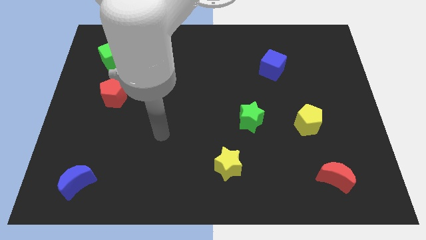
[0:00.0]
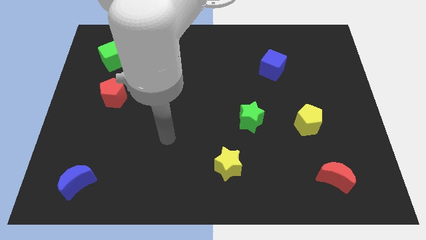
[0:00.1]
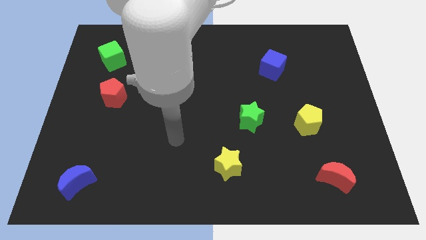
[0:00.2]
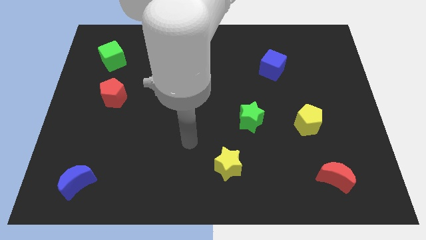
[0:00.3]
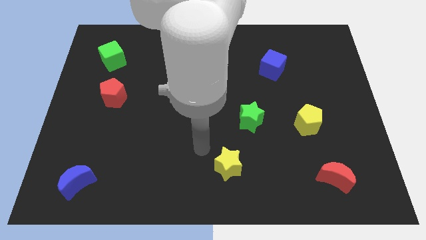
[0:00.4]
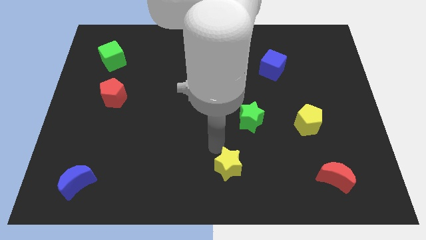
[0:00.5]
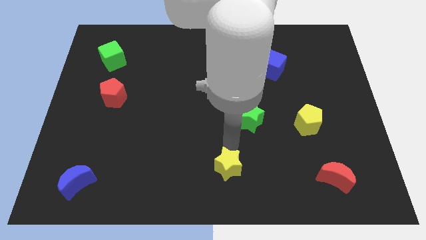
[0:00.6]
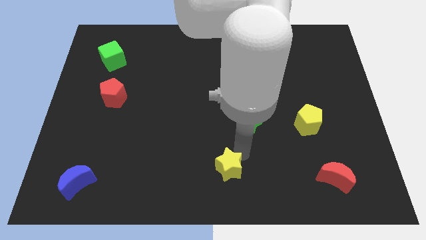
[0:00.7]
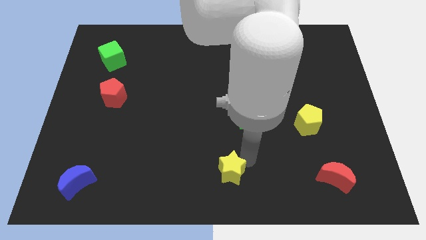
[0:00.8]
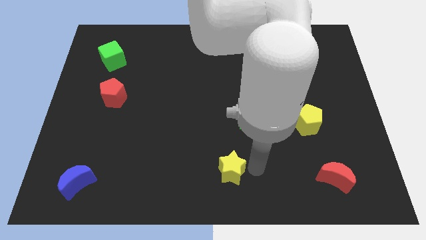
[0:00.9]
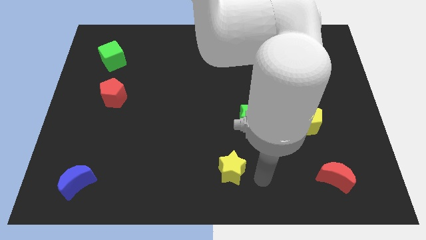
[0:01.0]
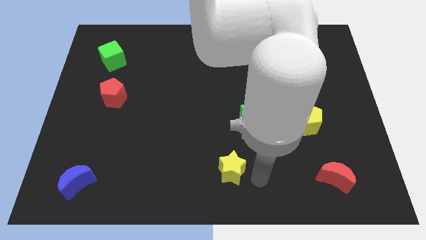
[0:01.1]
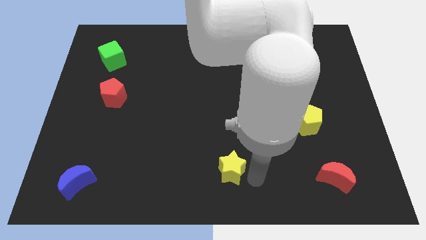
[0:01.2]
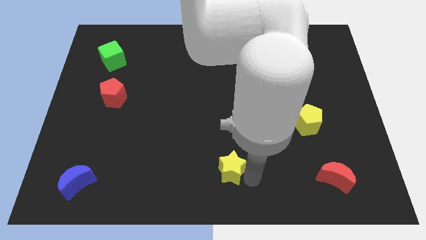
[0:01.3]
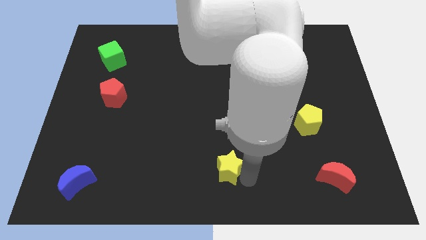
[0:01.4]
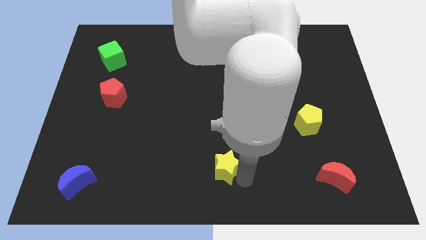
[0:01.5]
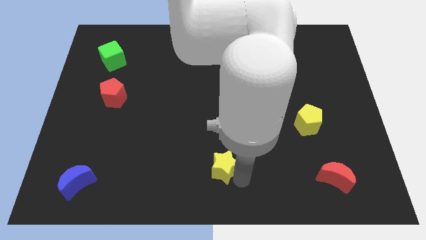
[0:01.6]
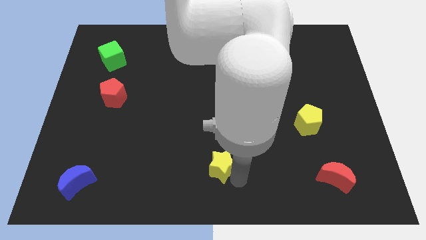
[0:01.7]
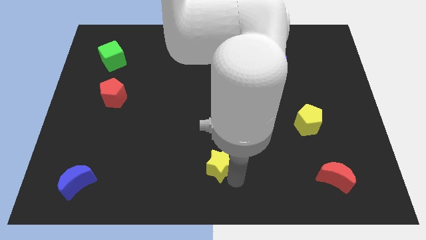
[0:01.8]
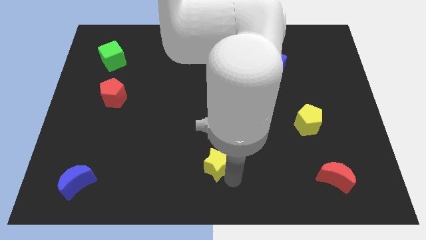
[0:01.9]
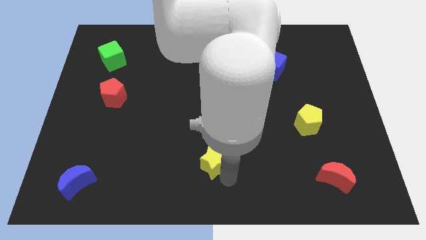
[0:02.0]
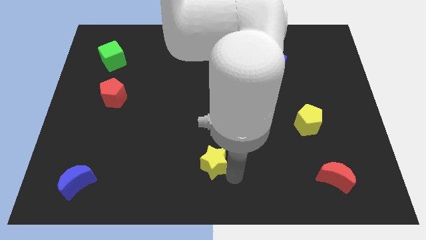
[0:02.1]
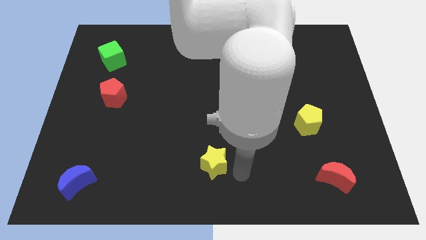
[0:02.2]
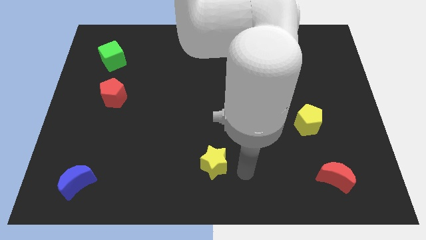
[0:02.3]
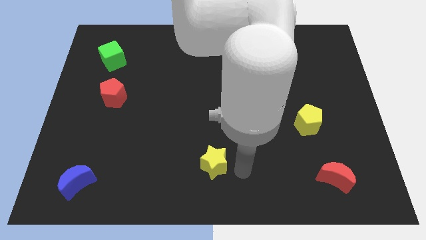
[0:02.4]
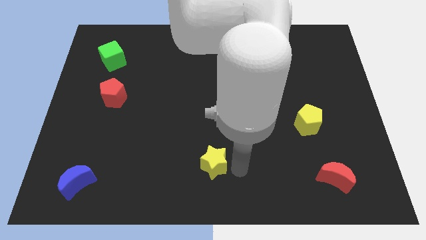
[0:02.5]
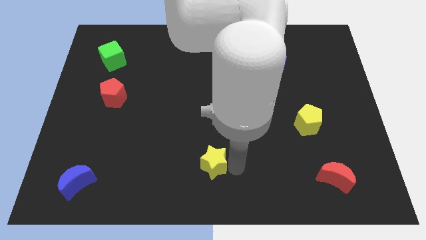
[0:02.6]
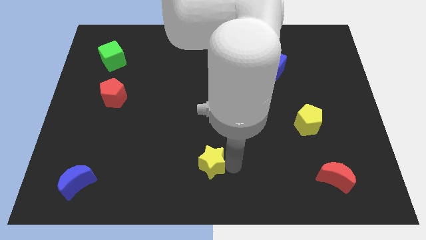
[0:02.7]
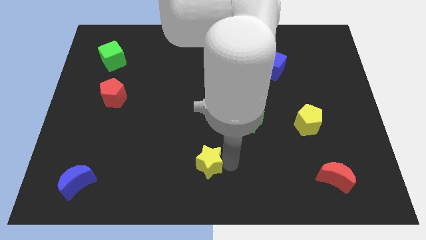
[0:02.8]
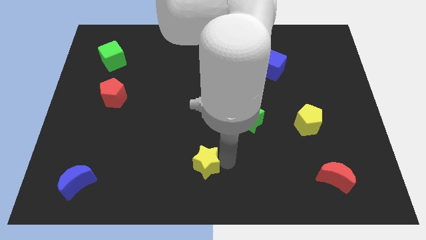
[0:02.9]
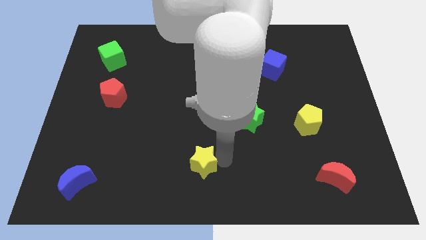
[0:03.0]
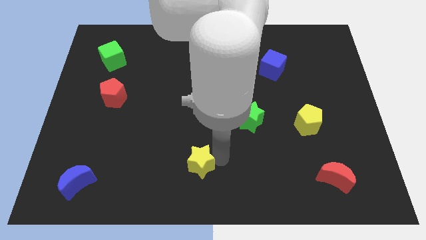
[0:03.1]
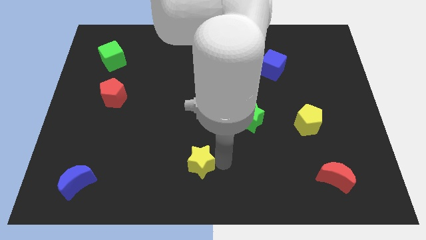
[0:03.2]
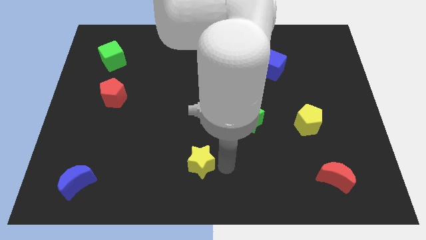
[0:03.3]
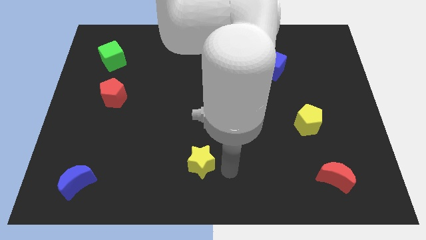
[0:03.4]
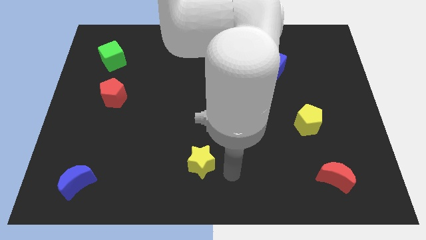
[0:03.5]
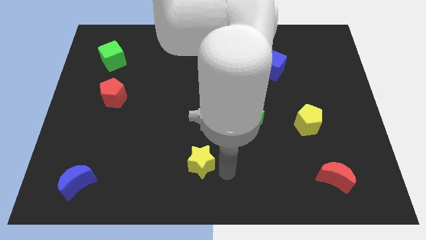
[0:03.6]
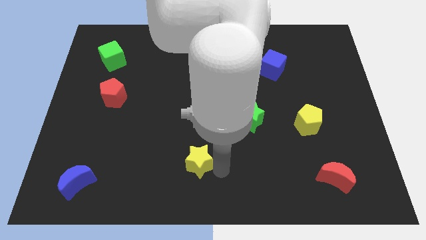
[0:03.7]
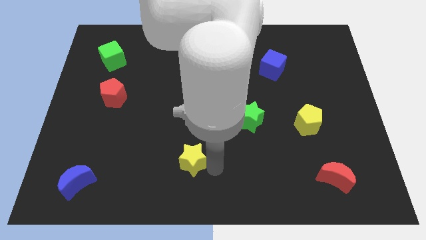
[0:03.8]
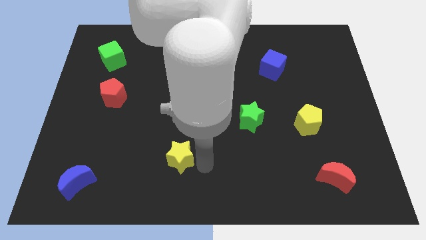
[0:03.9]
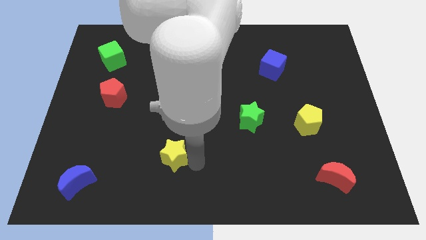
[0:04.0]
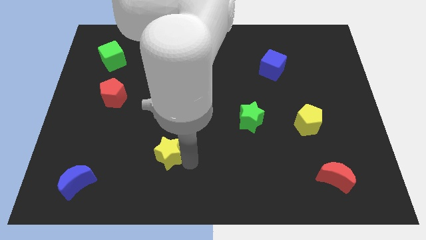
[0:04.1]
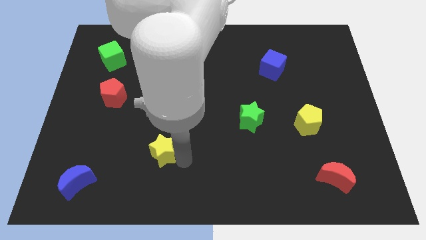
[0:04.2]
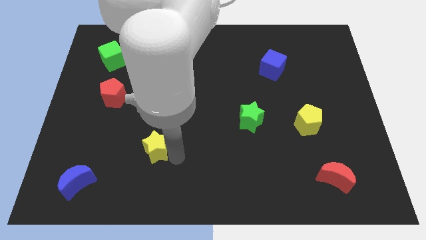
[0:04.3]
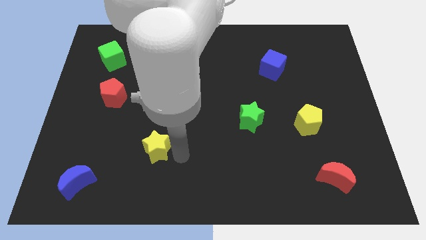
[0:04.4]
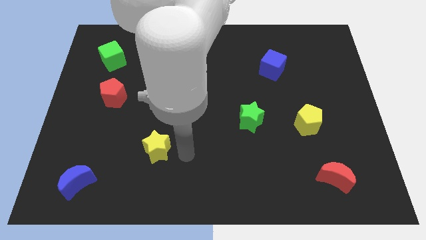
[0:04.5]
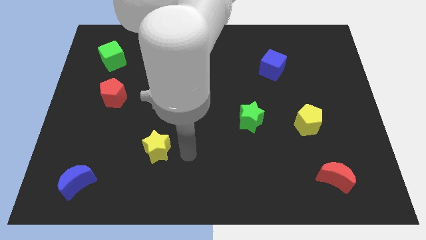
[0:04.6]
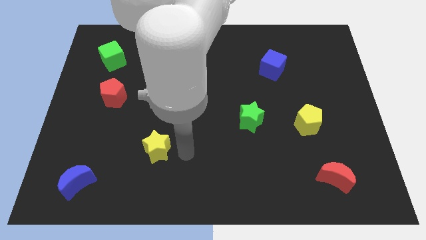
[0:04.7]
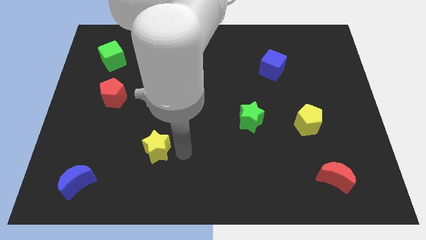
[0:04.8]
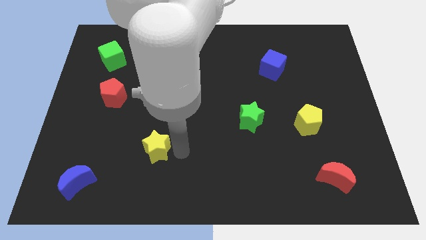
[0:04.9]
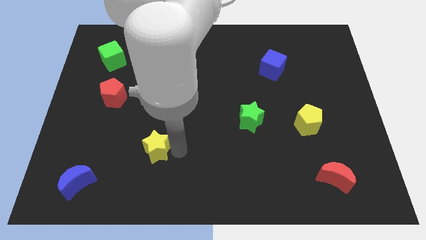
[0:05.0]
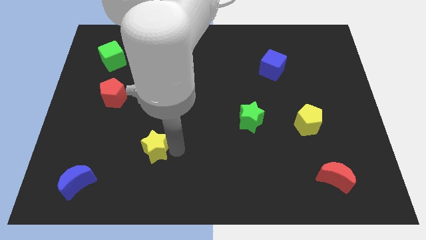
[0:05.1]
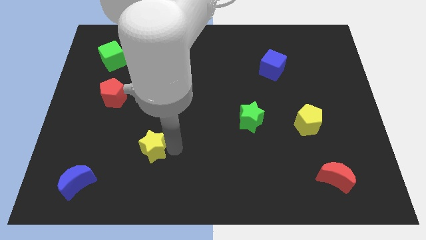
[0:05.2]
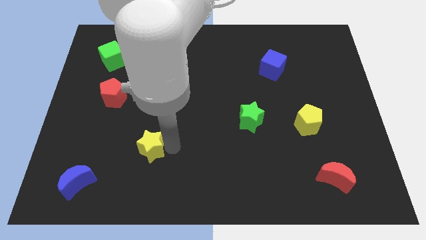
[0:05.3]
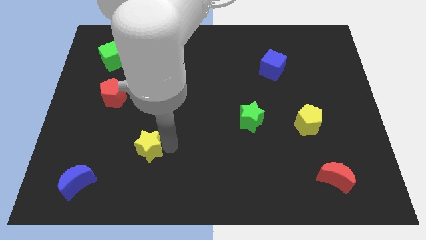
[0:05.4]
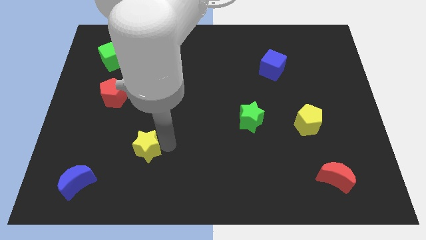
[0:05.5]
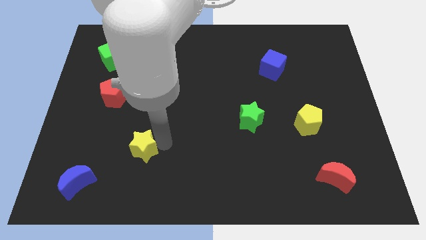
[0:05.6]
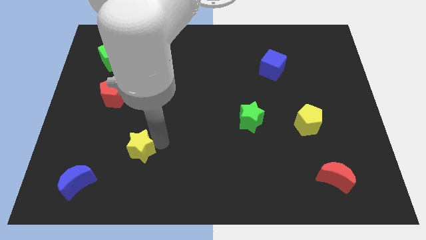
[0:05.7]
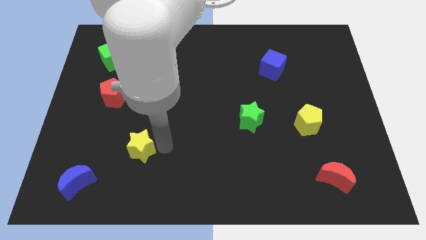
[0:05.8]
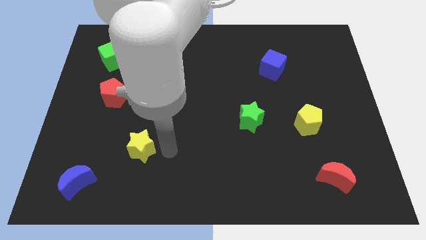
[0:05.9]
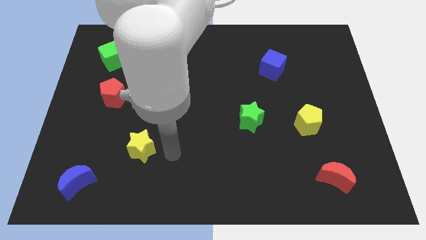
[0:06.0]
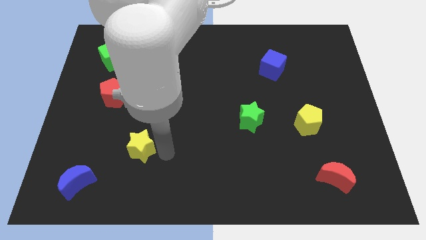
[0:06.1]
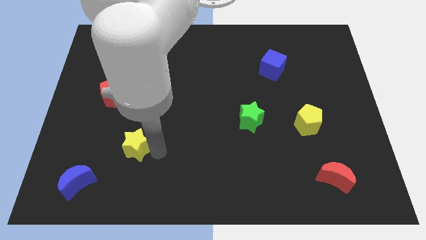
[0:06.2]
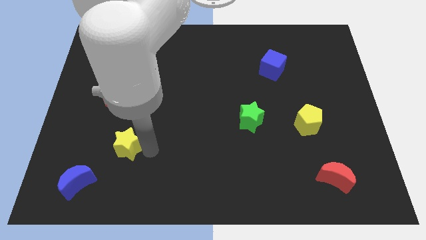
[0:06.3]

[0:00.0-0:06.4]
push the yellow star left

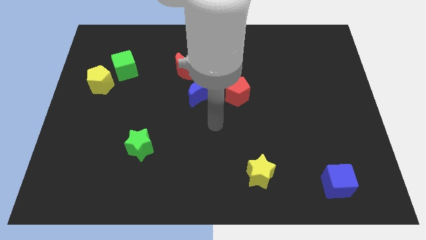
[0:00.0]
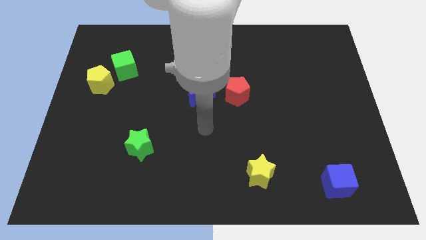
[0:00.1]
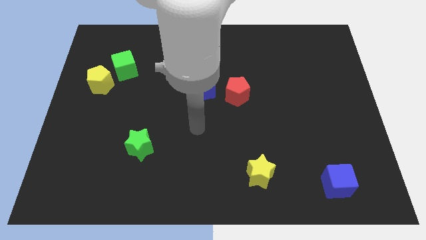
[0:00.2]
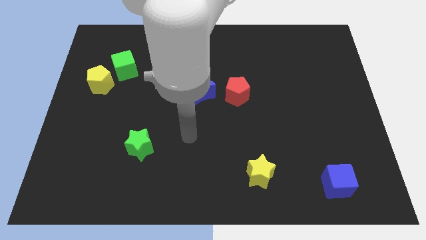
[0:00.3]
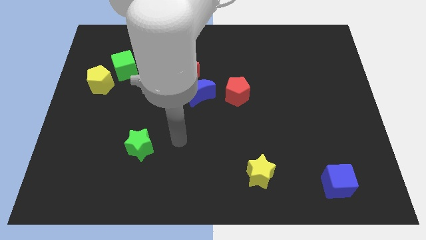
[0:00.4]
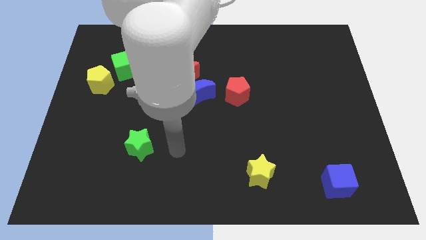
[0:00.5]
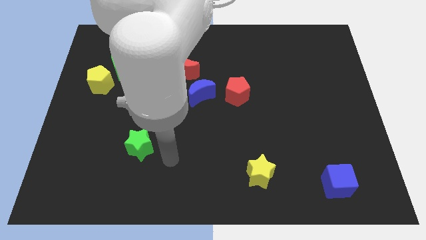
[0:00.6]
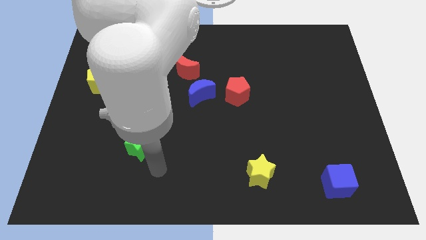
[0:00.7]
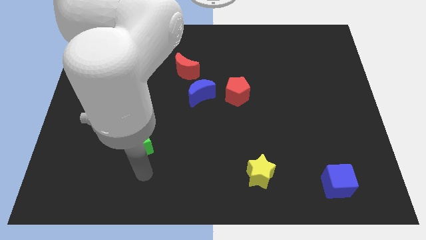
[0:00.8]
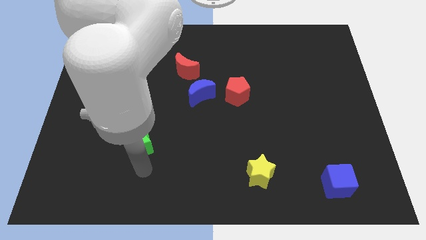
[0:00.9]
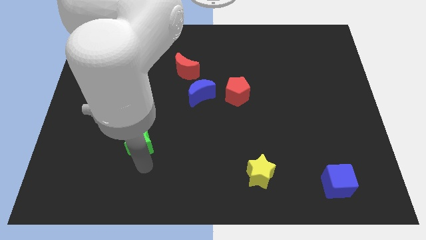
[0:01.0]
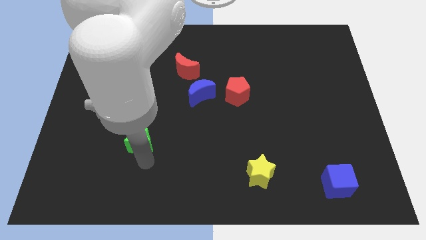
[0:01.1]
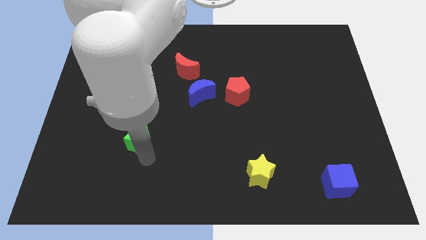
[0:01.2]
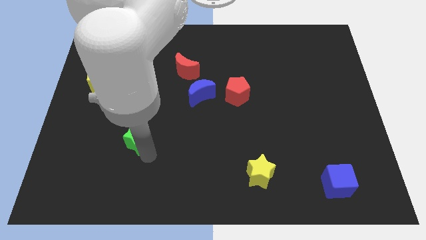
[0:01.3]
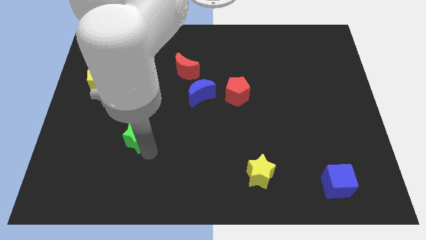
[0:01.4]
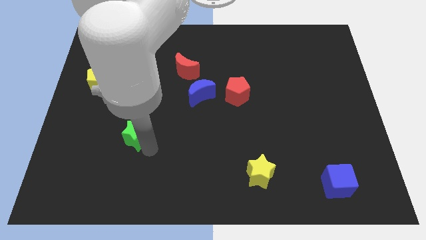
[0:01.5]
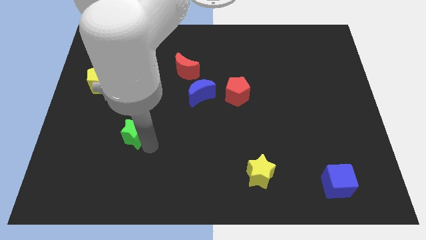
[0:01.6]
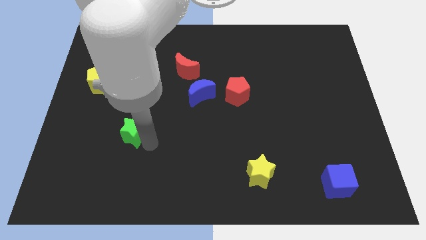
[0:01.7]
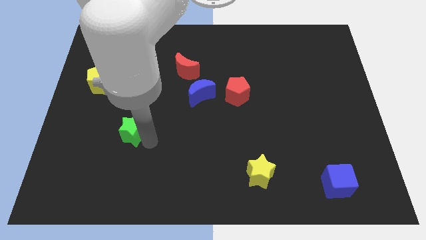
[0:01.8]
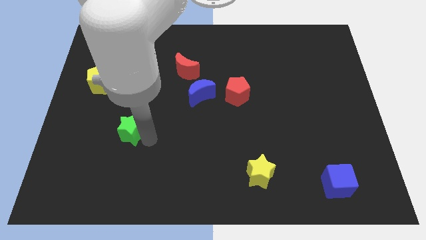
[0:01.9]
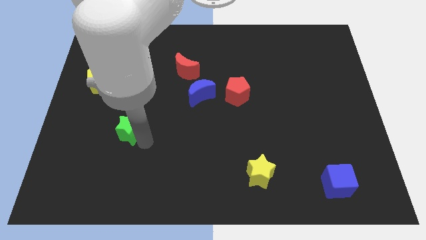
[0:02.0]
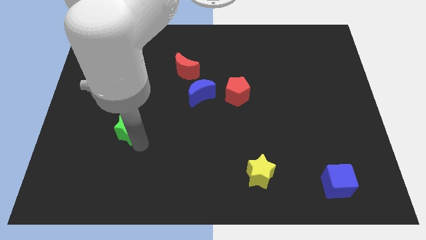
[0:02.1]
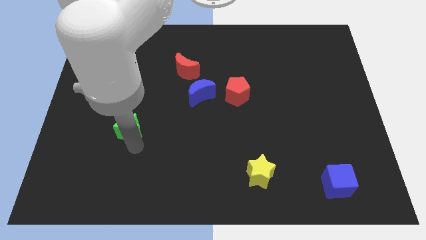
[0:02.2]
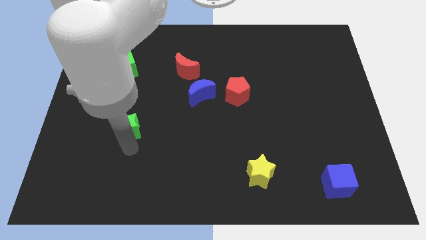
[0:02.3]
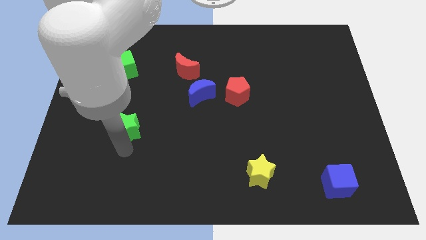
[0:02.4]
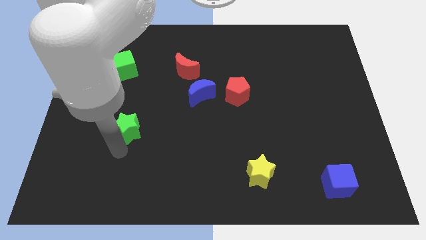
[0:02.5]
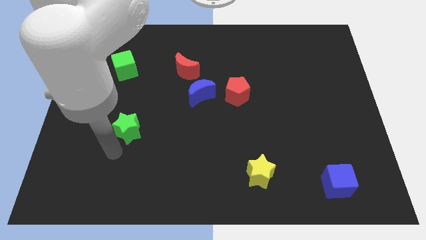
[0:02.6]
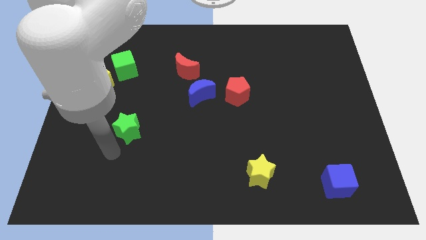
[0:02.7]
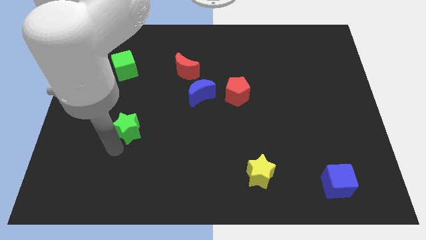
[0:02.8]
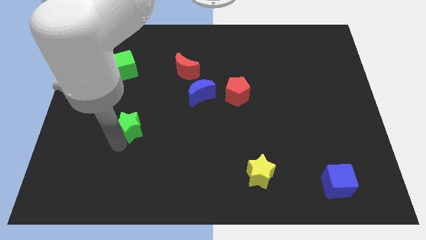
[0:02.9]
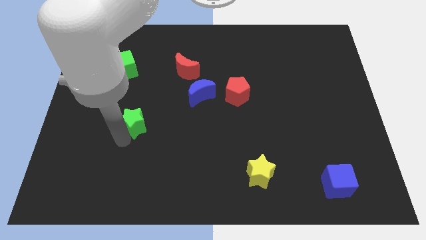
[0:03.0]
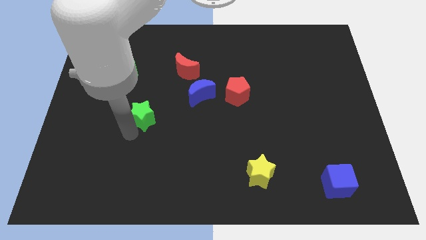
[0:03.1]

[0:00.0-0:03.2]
push the green star somewhat upwards
